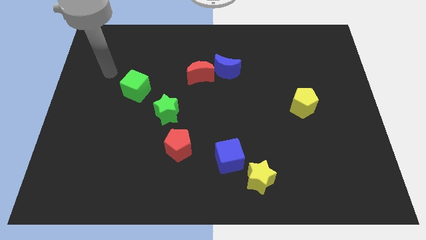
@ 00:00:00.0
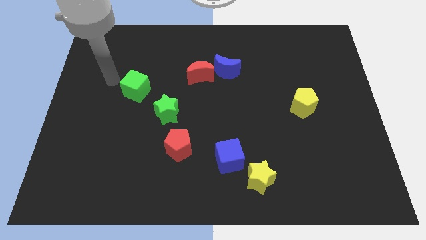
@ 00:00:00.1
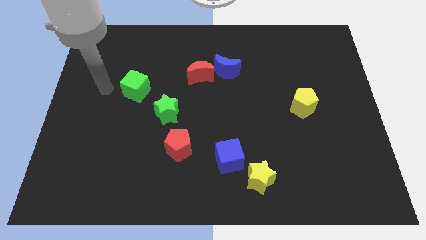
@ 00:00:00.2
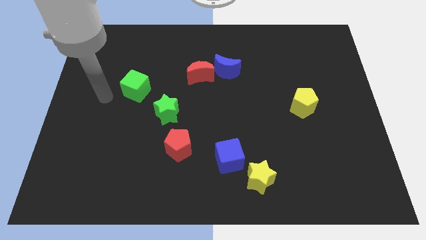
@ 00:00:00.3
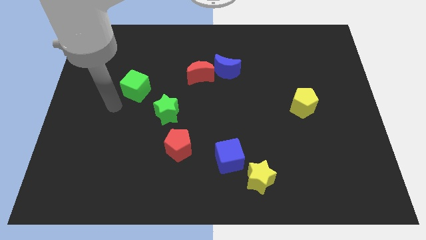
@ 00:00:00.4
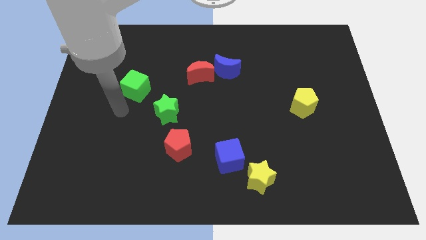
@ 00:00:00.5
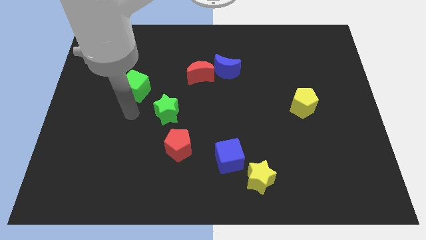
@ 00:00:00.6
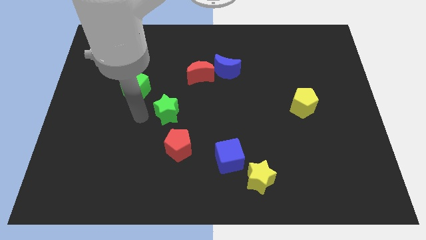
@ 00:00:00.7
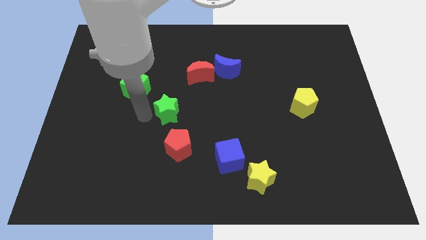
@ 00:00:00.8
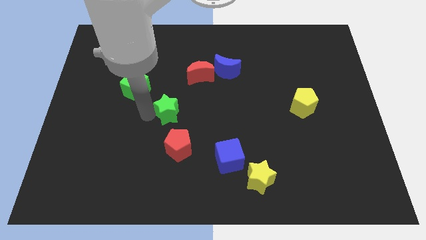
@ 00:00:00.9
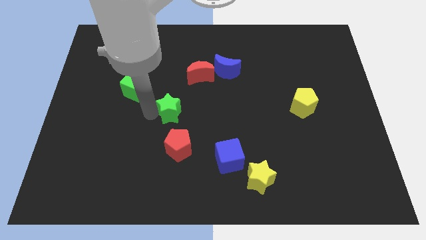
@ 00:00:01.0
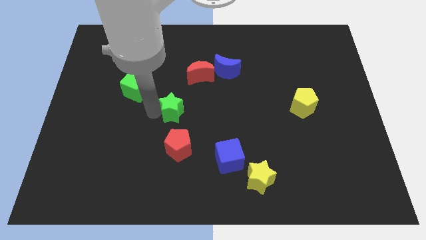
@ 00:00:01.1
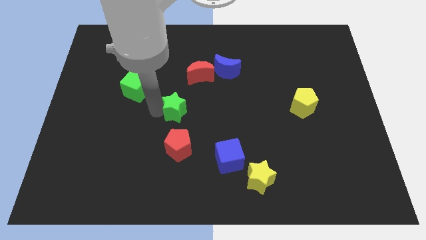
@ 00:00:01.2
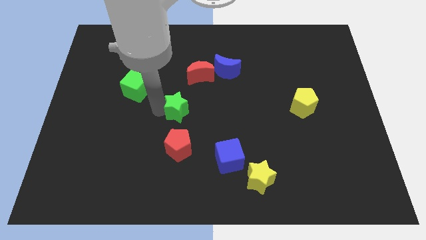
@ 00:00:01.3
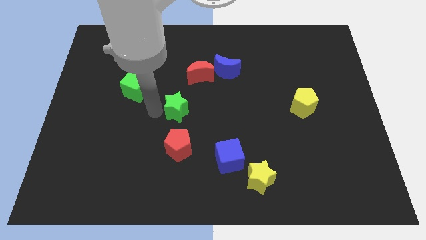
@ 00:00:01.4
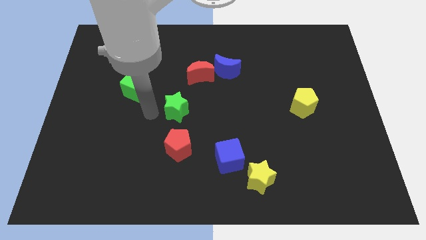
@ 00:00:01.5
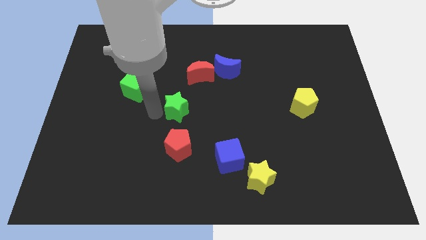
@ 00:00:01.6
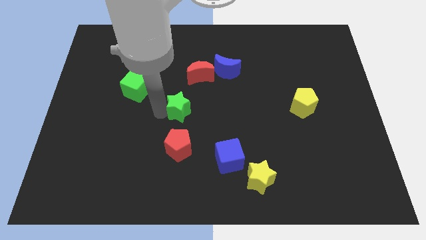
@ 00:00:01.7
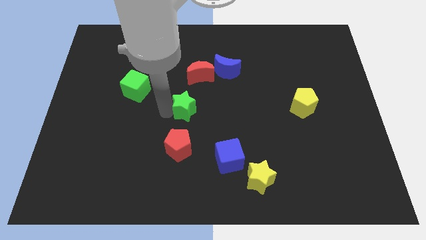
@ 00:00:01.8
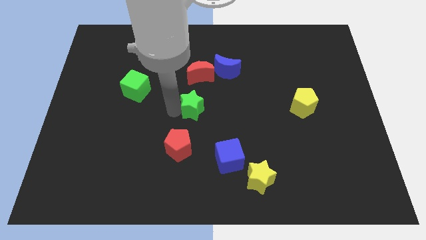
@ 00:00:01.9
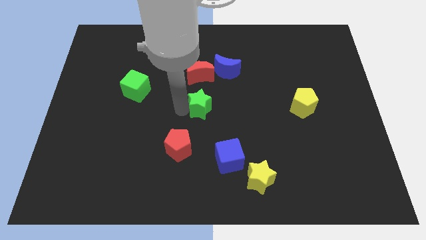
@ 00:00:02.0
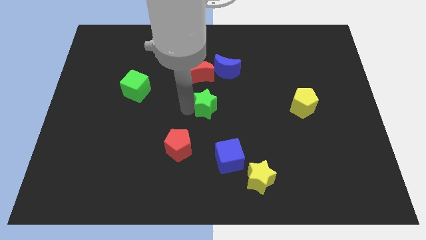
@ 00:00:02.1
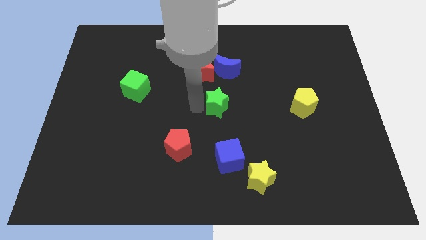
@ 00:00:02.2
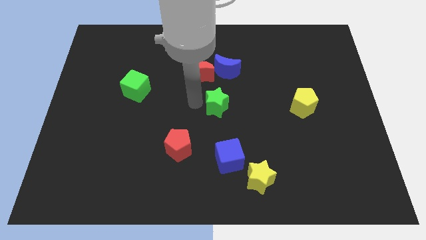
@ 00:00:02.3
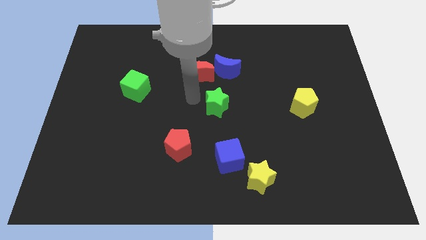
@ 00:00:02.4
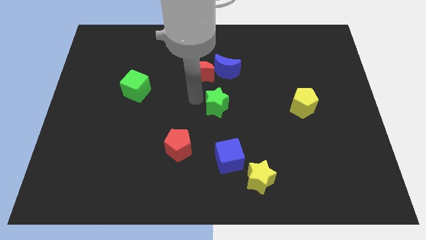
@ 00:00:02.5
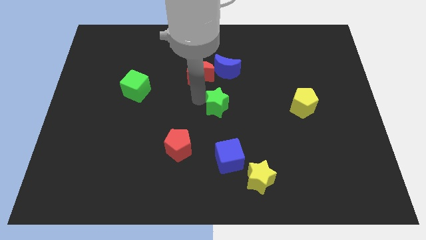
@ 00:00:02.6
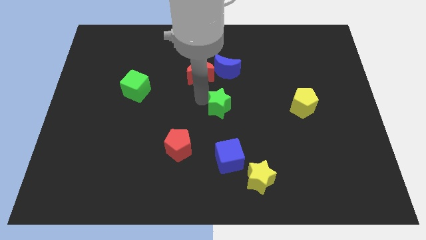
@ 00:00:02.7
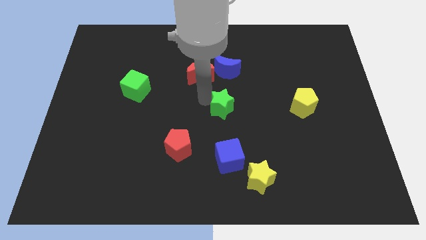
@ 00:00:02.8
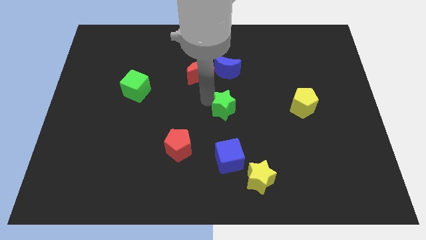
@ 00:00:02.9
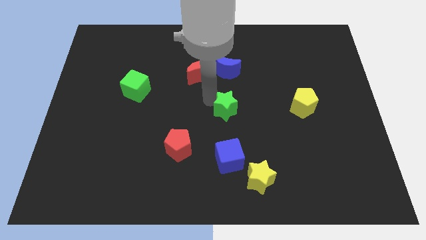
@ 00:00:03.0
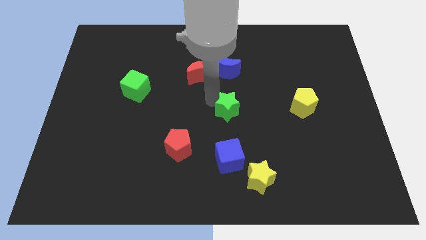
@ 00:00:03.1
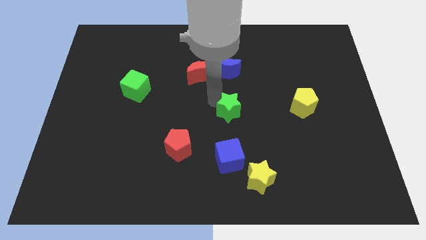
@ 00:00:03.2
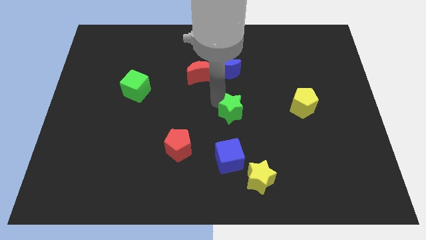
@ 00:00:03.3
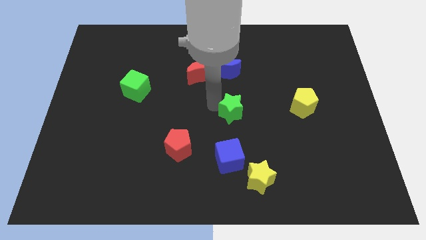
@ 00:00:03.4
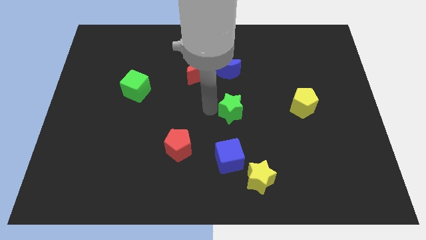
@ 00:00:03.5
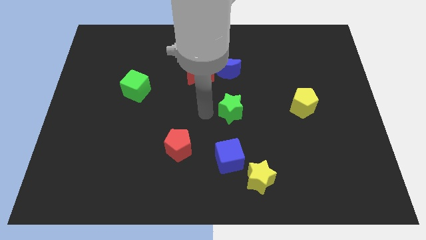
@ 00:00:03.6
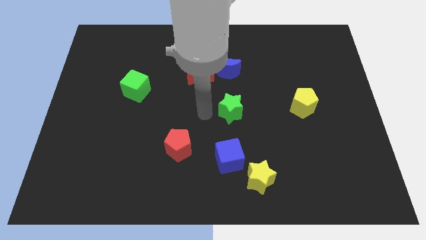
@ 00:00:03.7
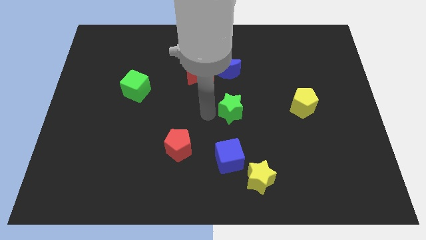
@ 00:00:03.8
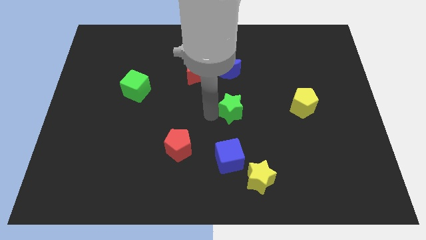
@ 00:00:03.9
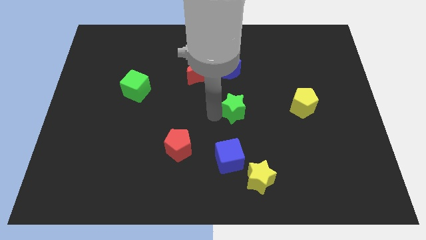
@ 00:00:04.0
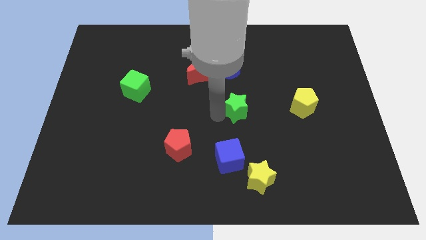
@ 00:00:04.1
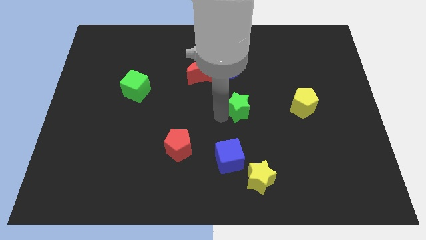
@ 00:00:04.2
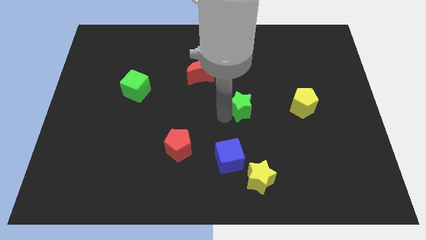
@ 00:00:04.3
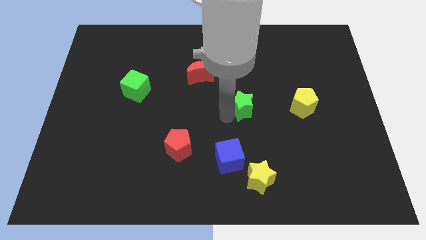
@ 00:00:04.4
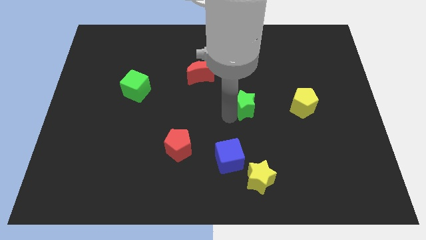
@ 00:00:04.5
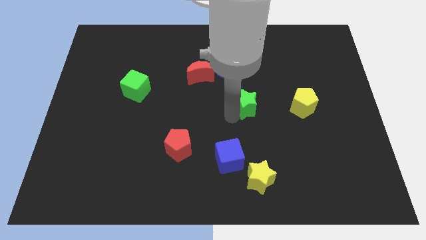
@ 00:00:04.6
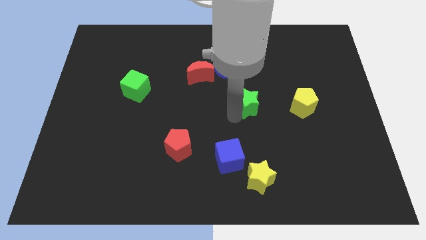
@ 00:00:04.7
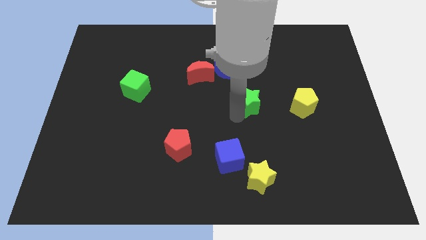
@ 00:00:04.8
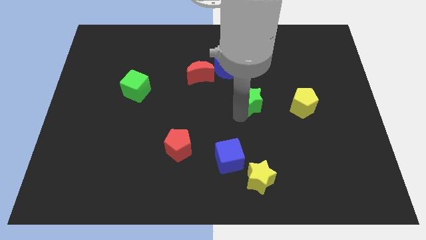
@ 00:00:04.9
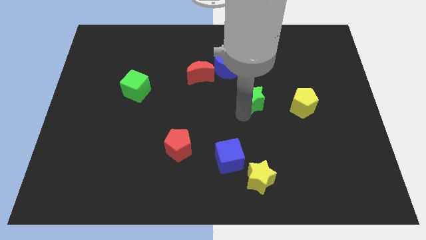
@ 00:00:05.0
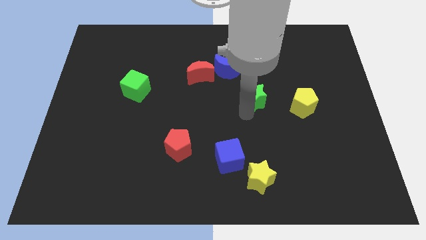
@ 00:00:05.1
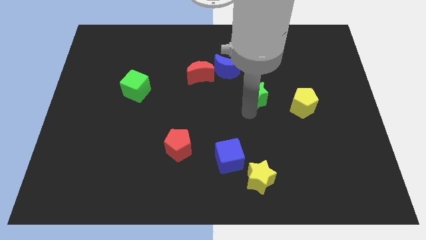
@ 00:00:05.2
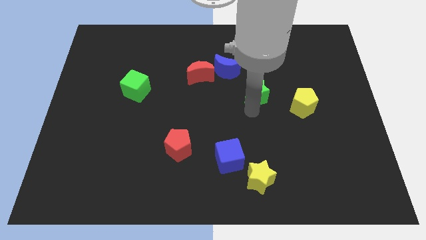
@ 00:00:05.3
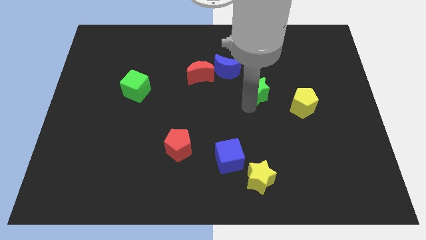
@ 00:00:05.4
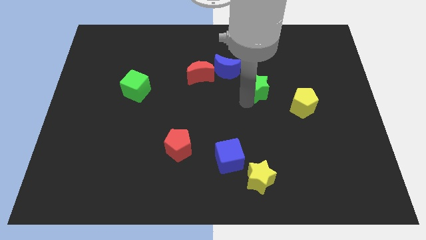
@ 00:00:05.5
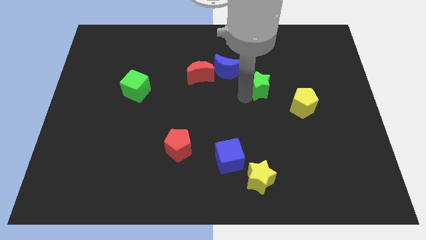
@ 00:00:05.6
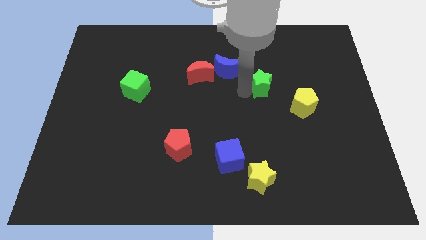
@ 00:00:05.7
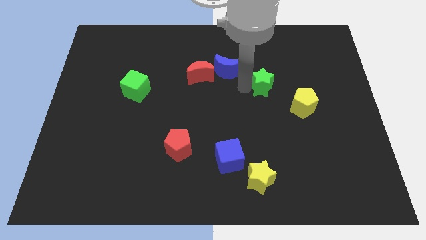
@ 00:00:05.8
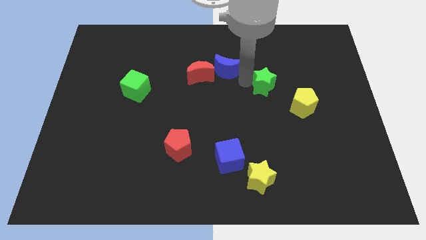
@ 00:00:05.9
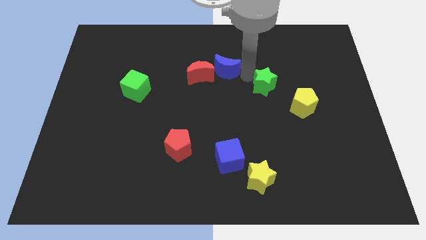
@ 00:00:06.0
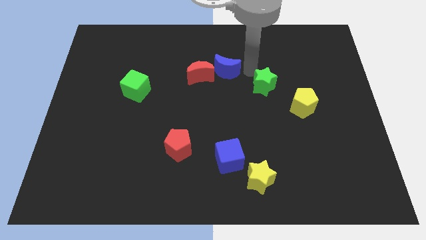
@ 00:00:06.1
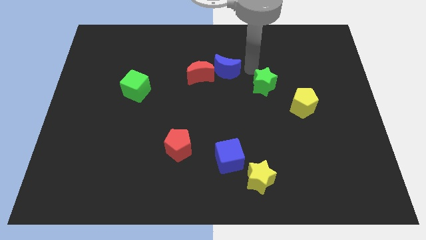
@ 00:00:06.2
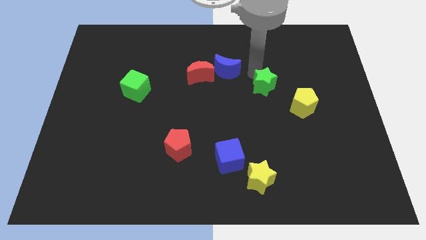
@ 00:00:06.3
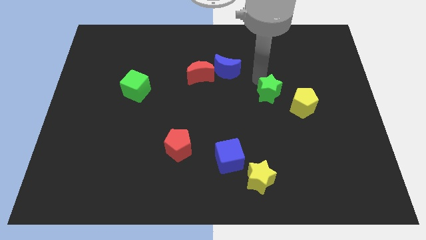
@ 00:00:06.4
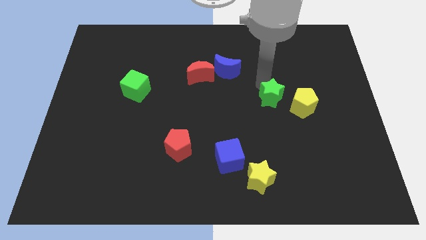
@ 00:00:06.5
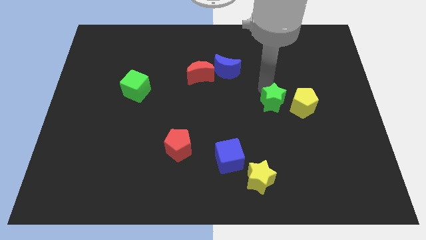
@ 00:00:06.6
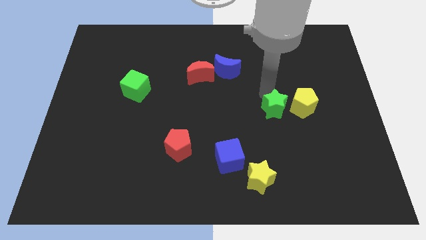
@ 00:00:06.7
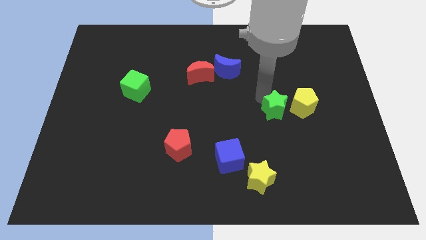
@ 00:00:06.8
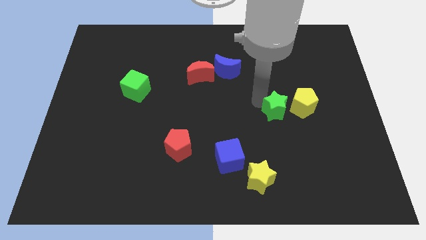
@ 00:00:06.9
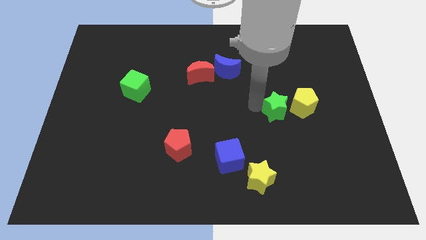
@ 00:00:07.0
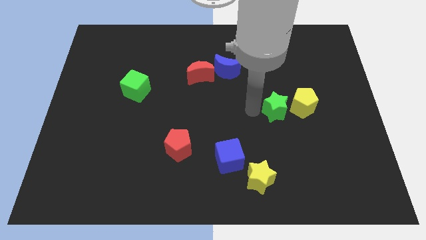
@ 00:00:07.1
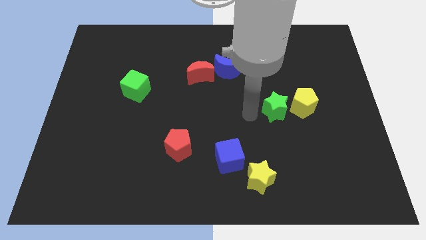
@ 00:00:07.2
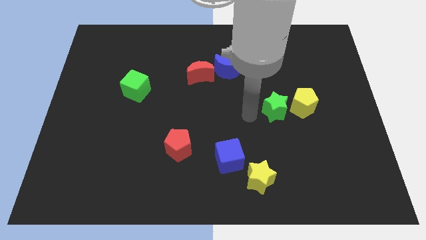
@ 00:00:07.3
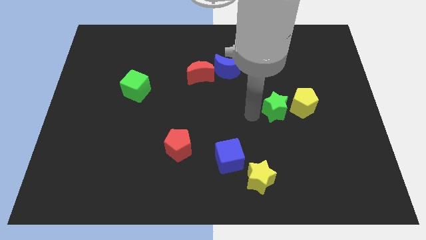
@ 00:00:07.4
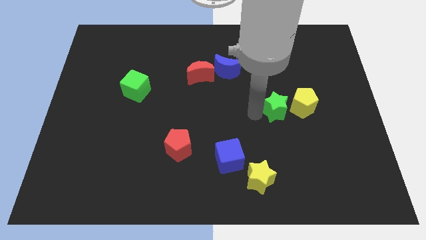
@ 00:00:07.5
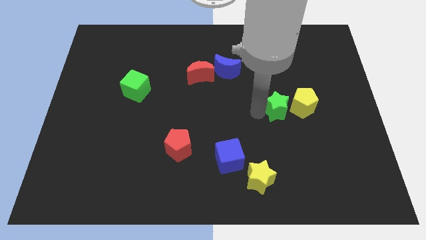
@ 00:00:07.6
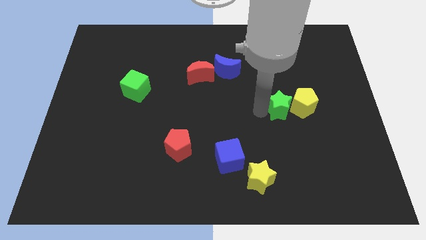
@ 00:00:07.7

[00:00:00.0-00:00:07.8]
slide the green star to the yellow pentagon
